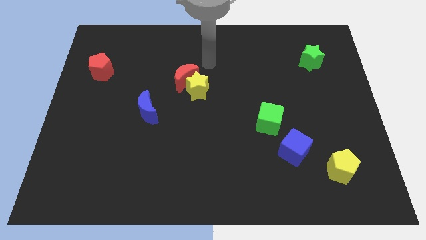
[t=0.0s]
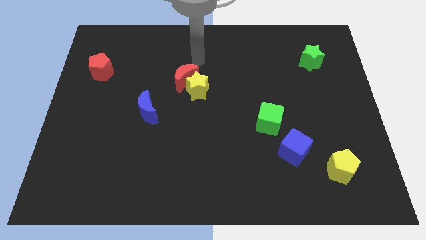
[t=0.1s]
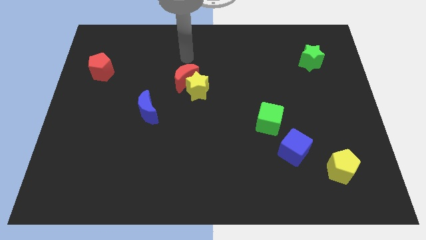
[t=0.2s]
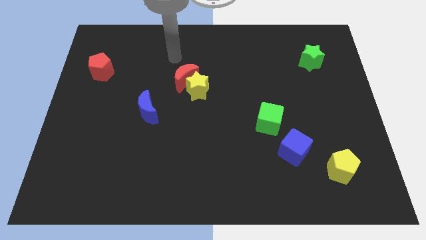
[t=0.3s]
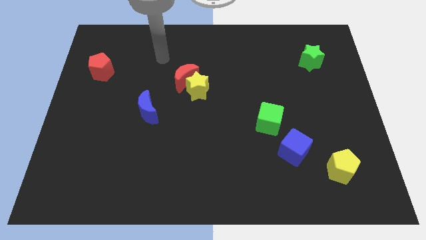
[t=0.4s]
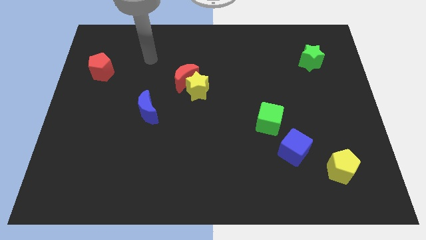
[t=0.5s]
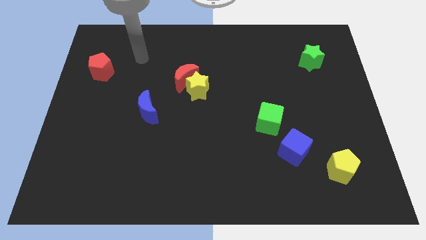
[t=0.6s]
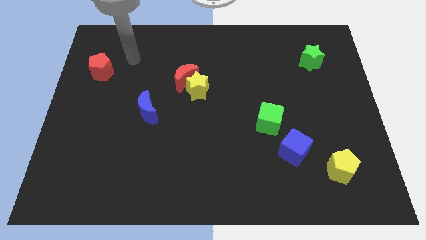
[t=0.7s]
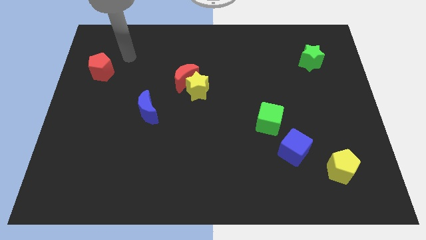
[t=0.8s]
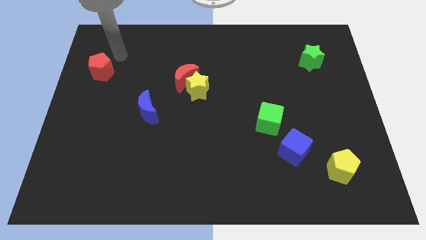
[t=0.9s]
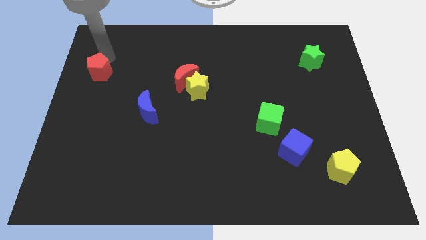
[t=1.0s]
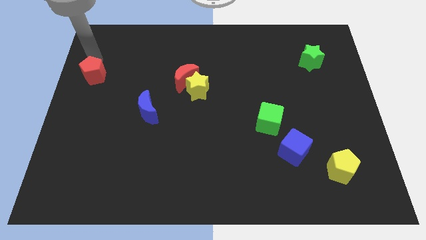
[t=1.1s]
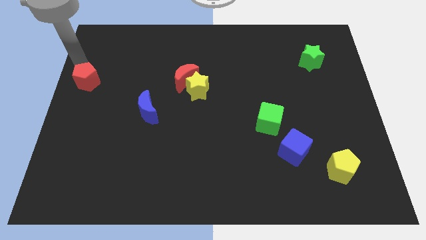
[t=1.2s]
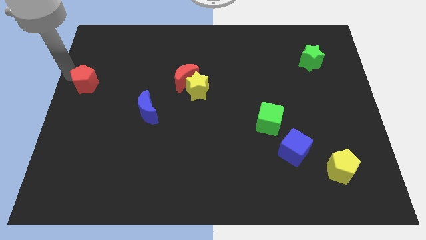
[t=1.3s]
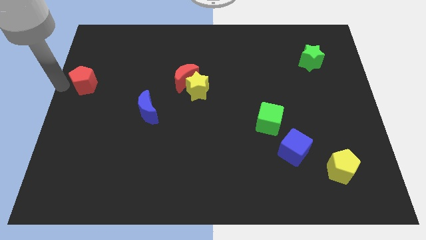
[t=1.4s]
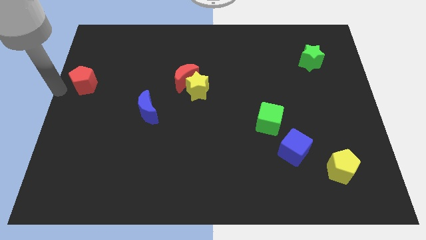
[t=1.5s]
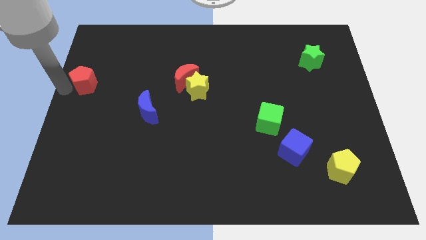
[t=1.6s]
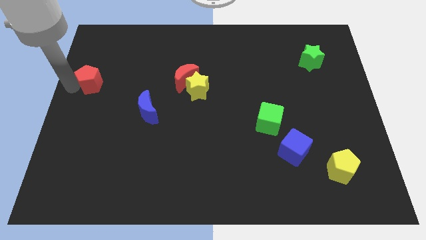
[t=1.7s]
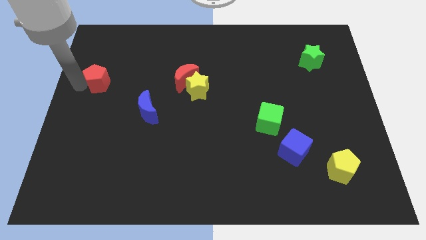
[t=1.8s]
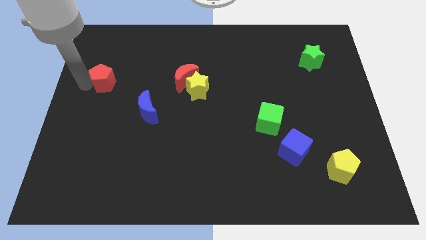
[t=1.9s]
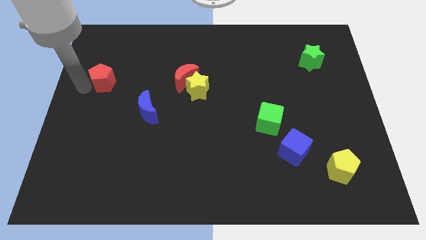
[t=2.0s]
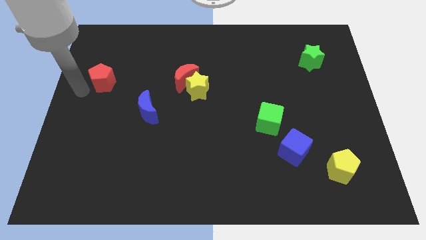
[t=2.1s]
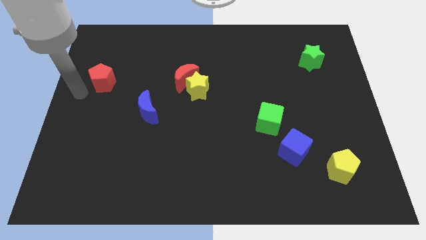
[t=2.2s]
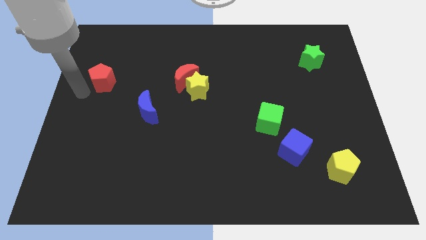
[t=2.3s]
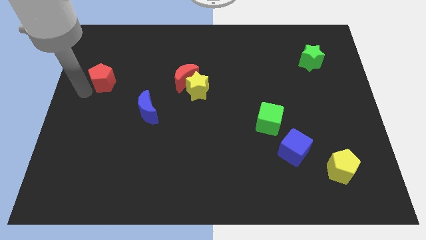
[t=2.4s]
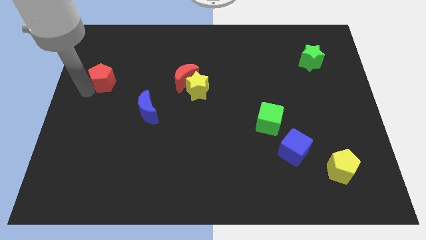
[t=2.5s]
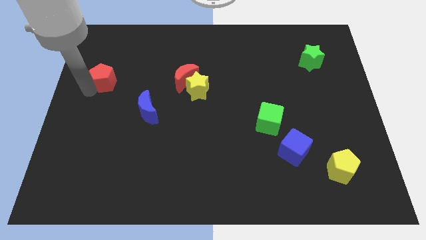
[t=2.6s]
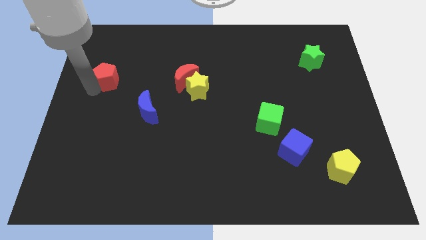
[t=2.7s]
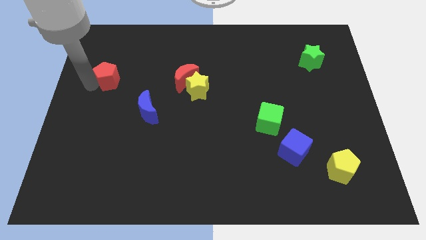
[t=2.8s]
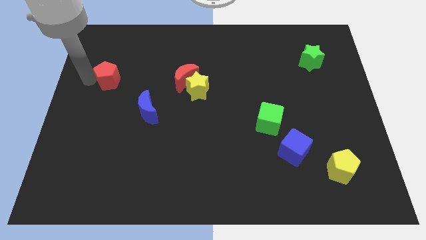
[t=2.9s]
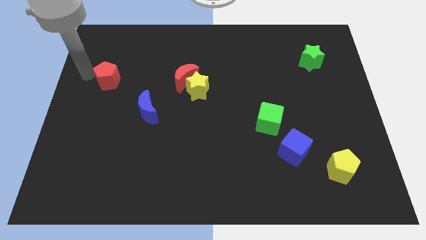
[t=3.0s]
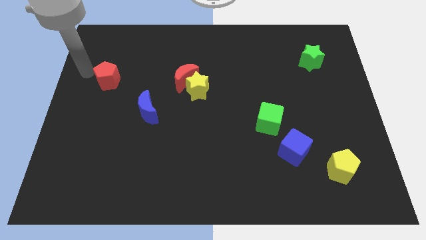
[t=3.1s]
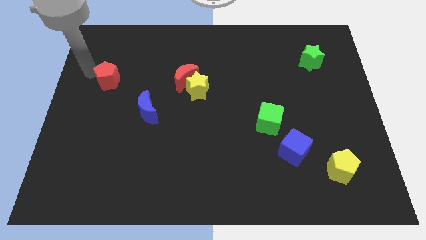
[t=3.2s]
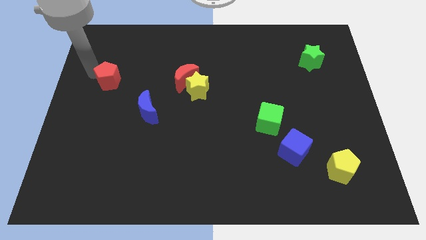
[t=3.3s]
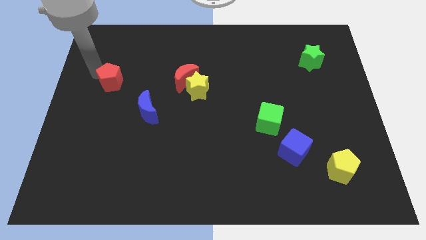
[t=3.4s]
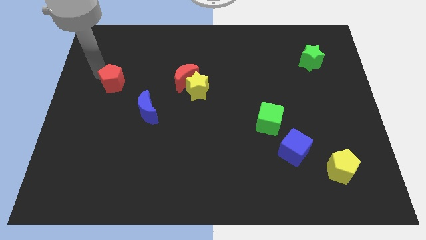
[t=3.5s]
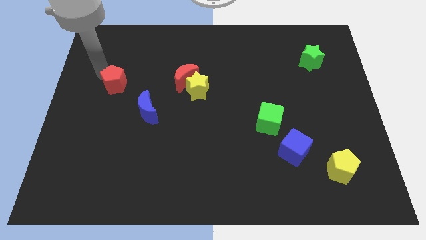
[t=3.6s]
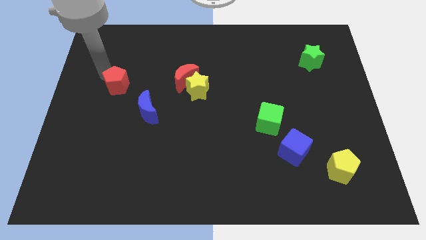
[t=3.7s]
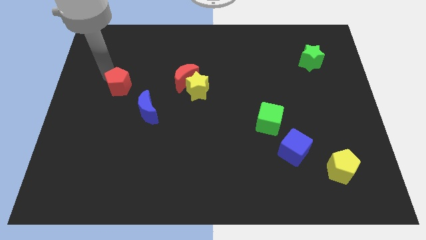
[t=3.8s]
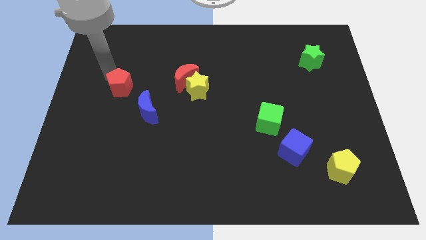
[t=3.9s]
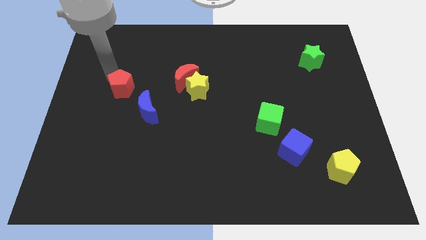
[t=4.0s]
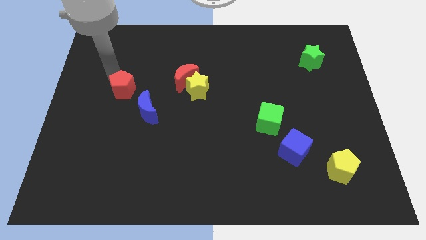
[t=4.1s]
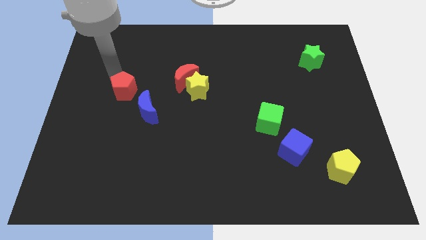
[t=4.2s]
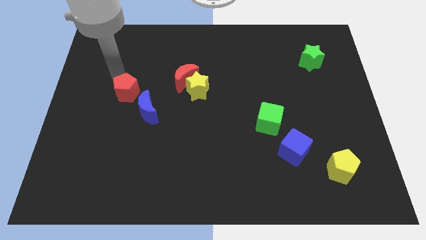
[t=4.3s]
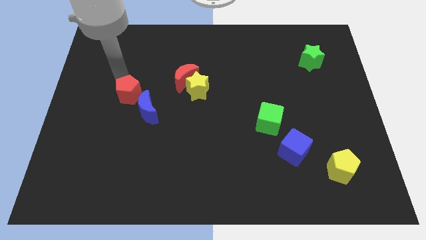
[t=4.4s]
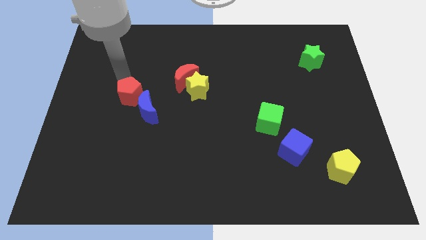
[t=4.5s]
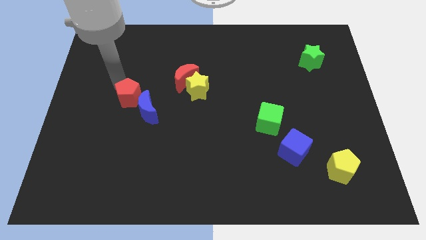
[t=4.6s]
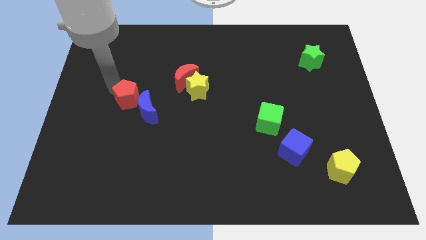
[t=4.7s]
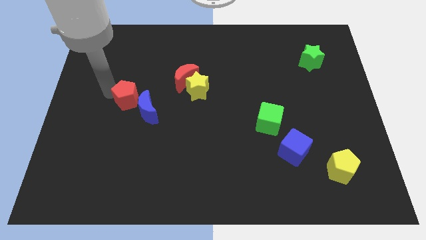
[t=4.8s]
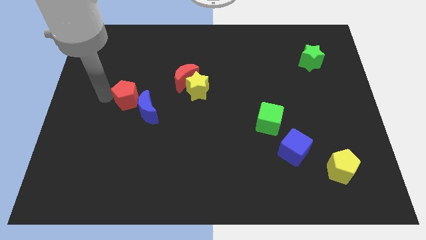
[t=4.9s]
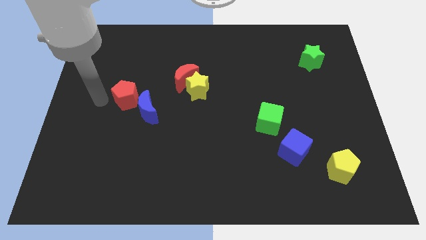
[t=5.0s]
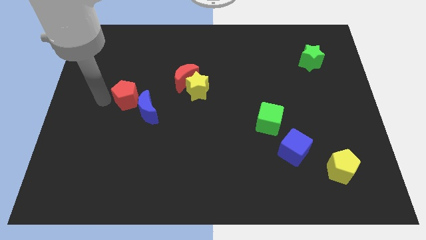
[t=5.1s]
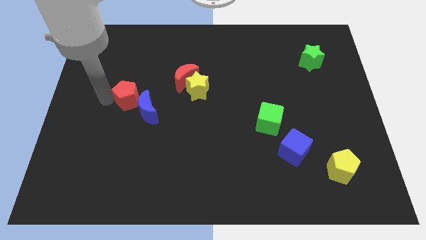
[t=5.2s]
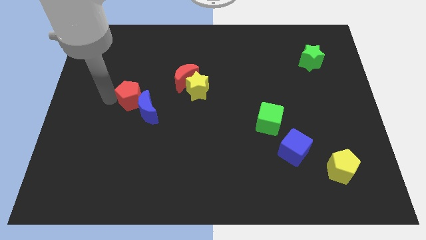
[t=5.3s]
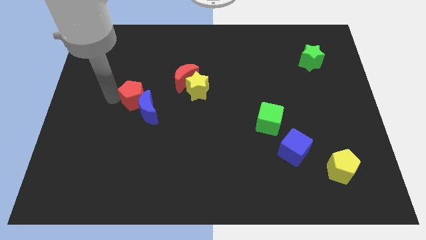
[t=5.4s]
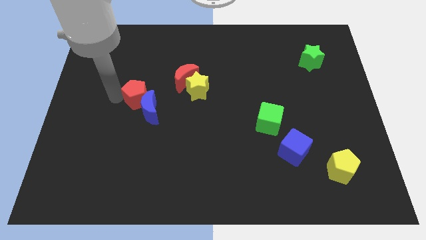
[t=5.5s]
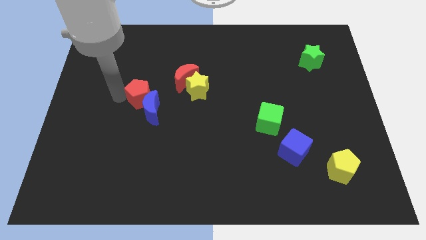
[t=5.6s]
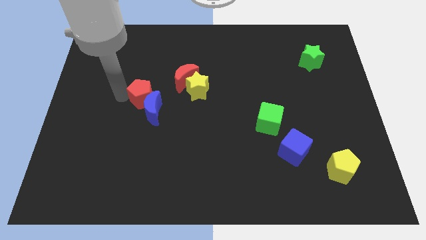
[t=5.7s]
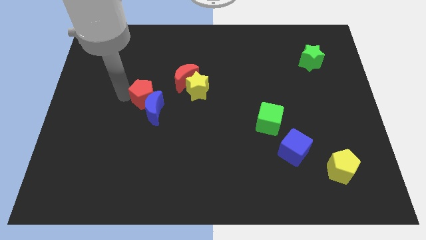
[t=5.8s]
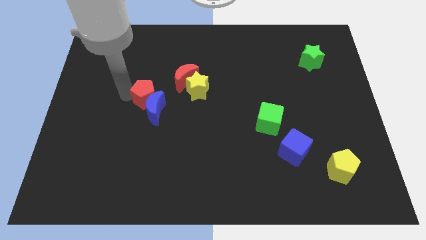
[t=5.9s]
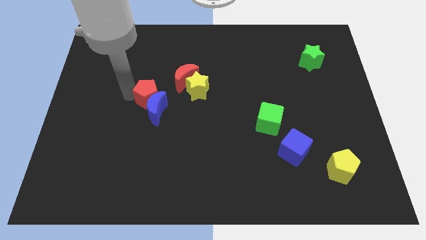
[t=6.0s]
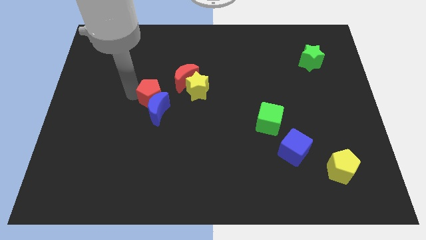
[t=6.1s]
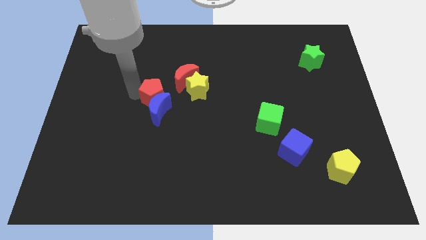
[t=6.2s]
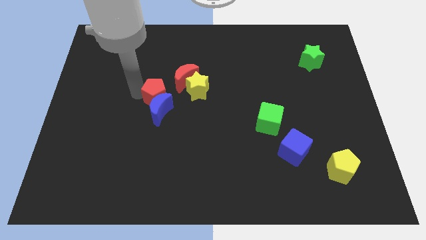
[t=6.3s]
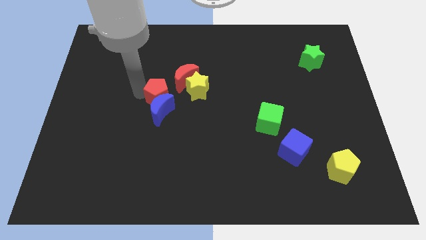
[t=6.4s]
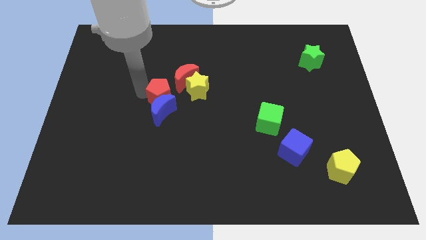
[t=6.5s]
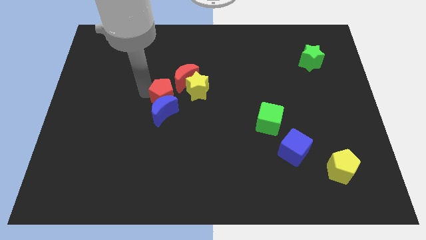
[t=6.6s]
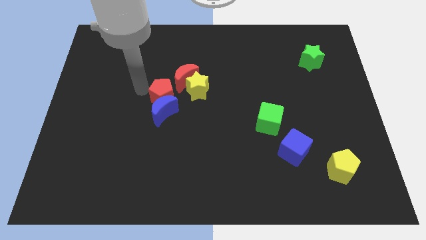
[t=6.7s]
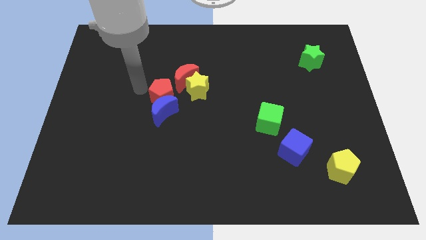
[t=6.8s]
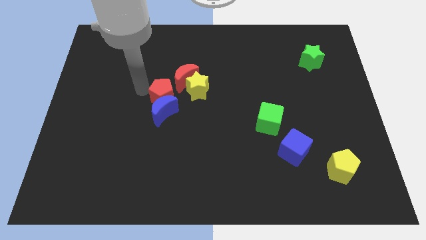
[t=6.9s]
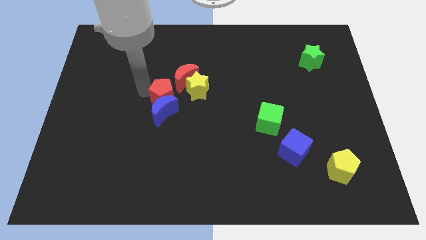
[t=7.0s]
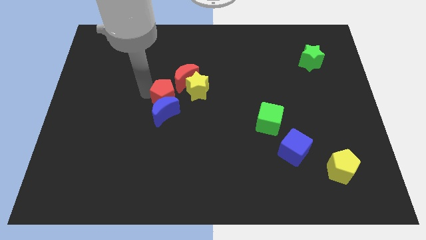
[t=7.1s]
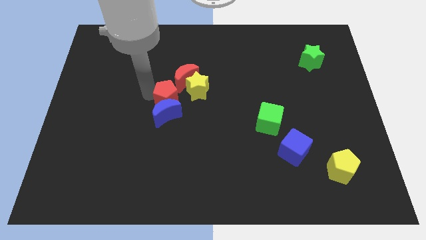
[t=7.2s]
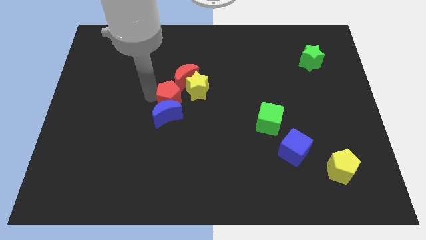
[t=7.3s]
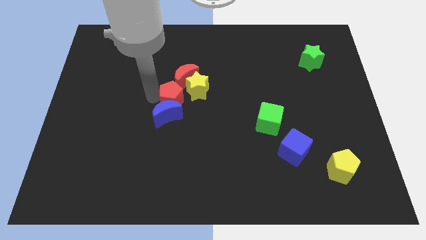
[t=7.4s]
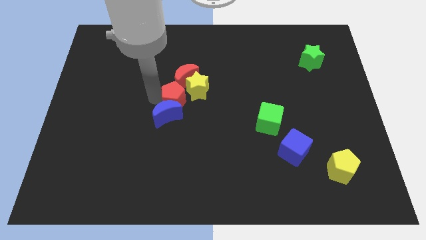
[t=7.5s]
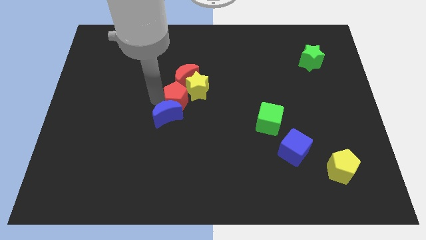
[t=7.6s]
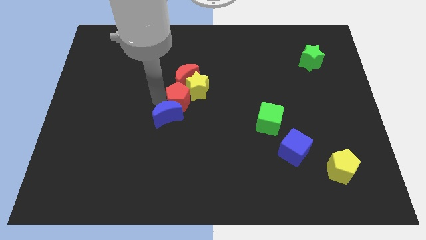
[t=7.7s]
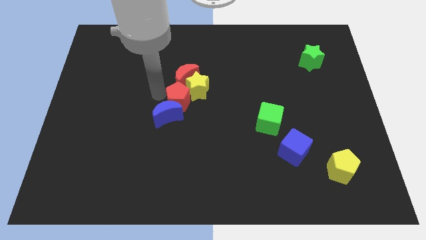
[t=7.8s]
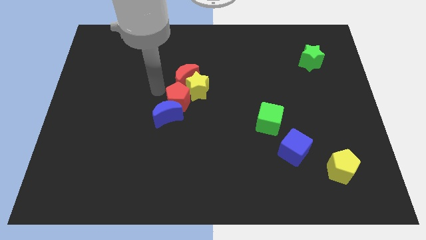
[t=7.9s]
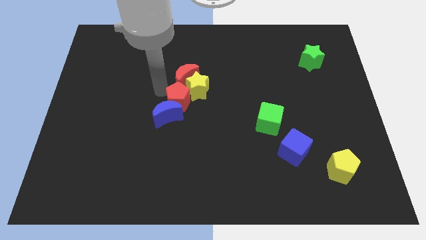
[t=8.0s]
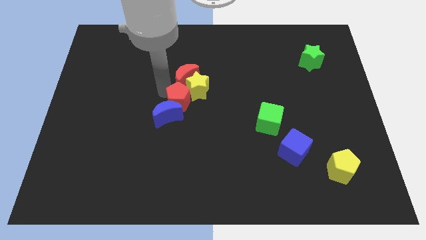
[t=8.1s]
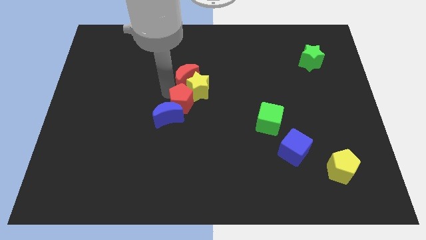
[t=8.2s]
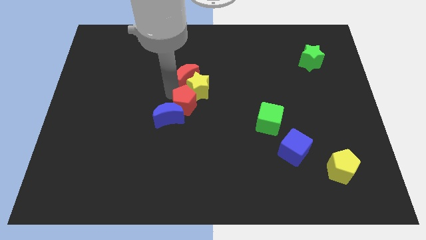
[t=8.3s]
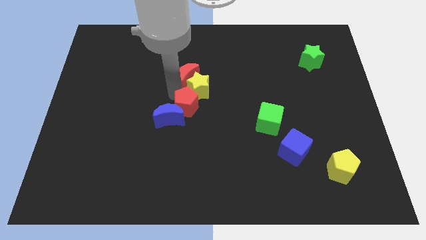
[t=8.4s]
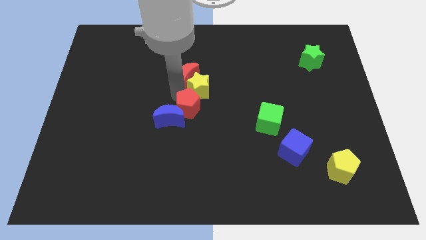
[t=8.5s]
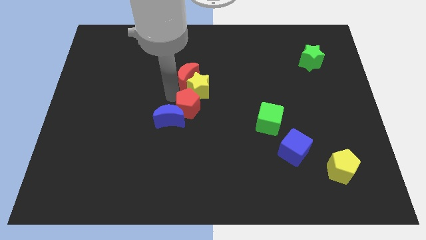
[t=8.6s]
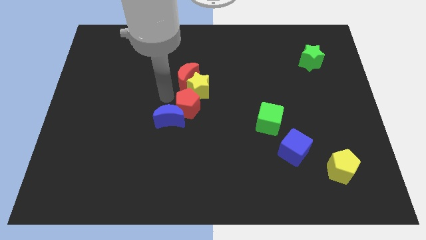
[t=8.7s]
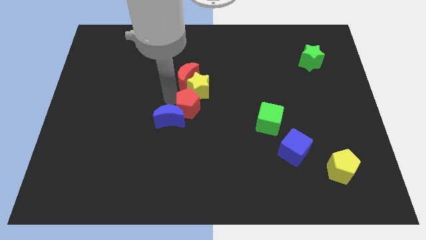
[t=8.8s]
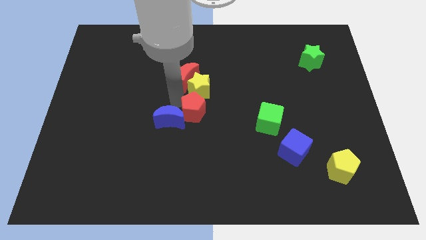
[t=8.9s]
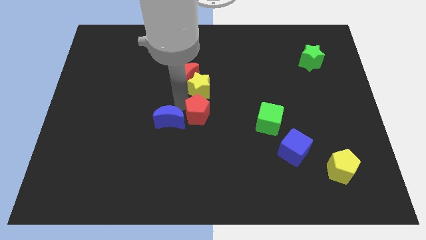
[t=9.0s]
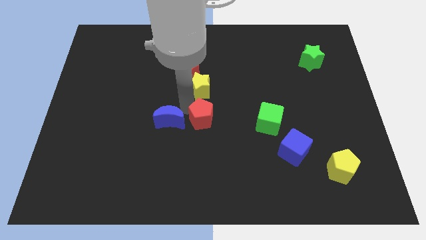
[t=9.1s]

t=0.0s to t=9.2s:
put the red pentagon to the left of the green cube
